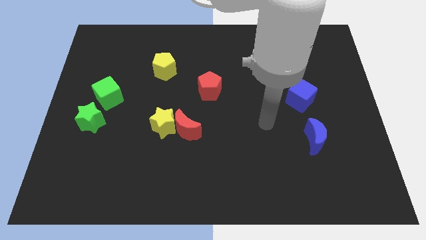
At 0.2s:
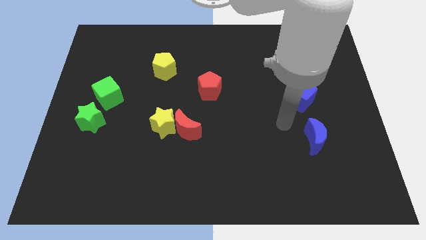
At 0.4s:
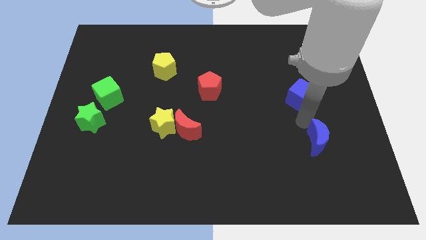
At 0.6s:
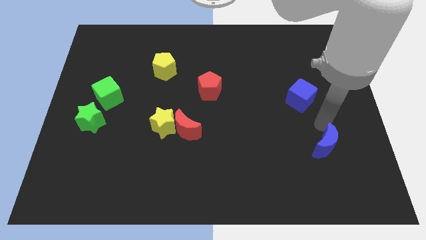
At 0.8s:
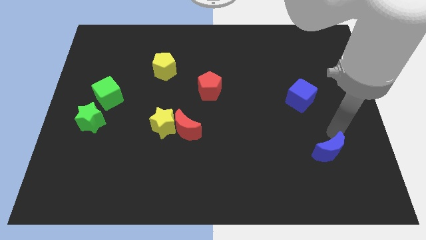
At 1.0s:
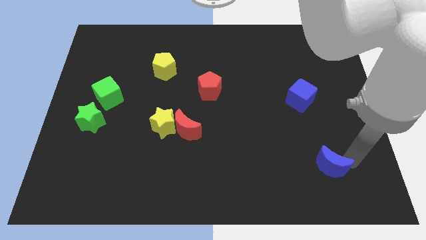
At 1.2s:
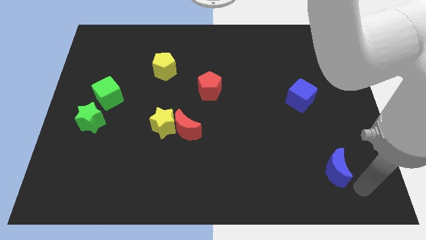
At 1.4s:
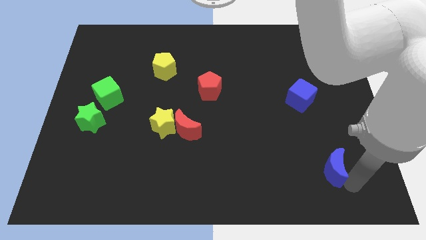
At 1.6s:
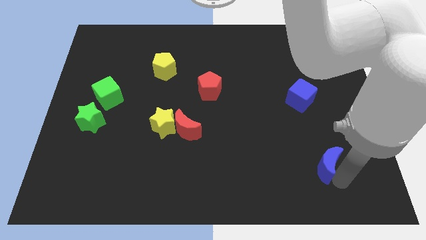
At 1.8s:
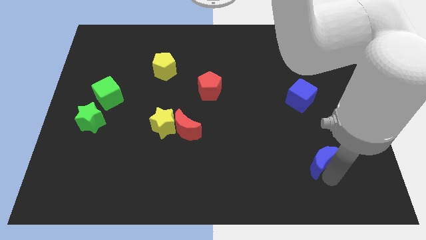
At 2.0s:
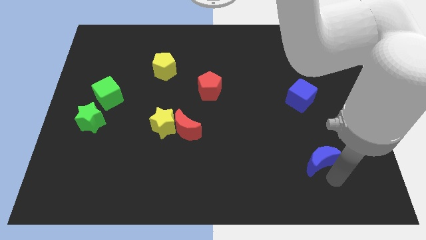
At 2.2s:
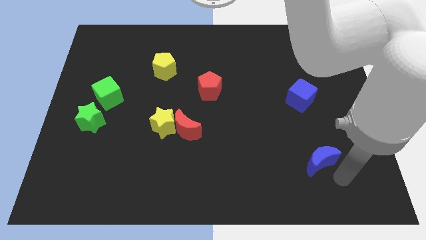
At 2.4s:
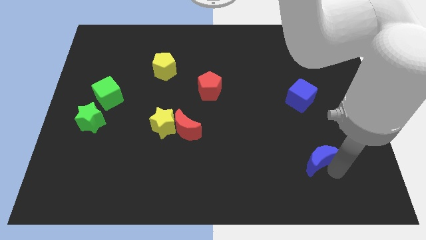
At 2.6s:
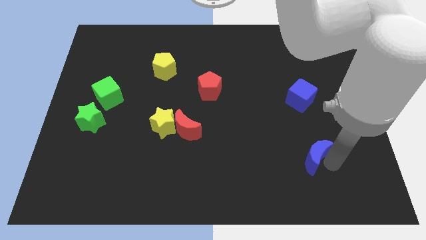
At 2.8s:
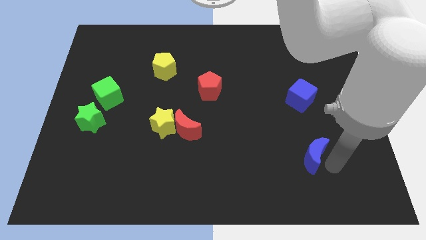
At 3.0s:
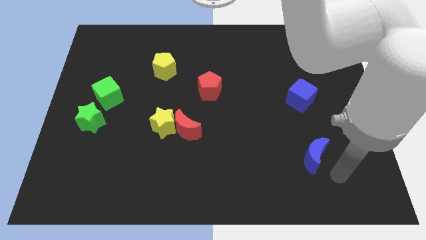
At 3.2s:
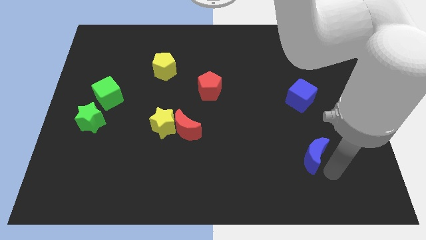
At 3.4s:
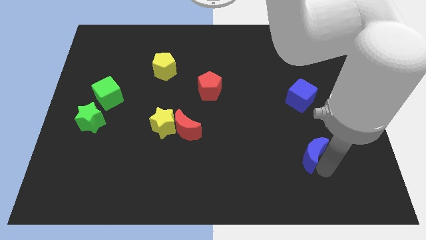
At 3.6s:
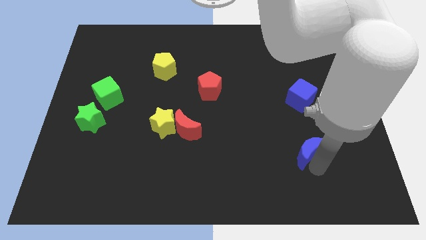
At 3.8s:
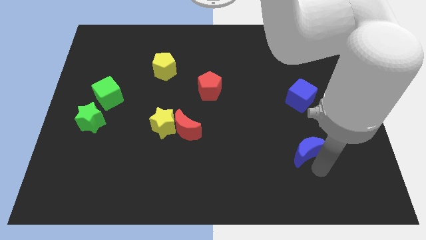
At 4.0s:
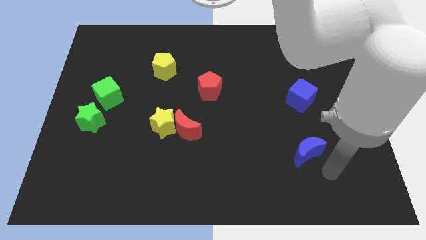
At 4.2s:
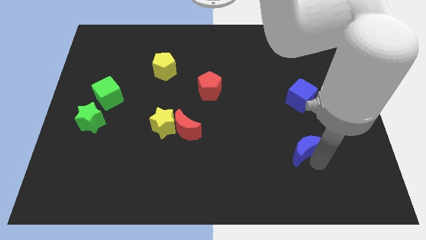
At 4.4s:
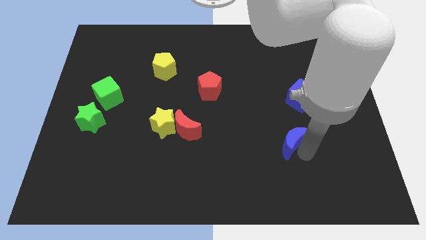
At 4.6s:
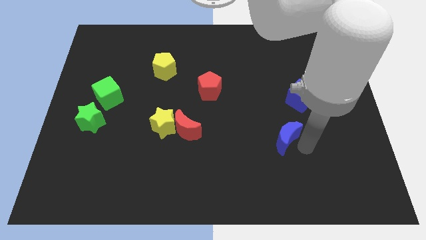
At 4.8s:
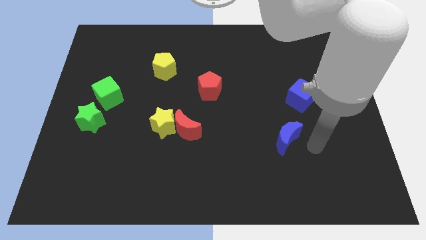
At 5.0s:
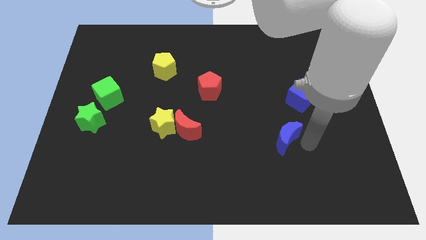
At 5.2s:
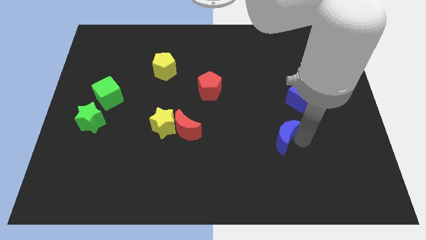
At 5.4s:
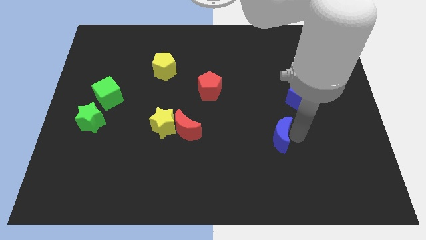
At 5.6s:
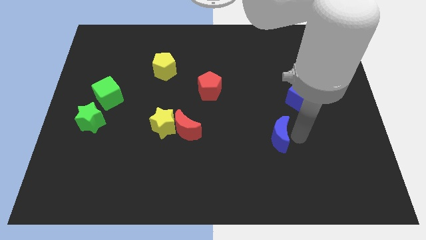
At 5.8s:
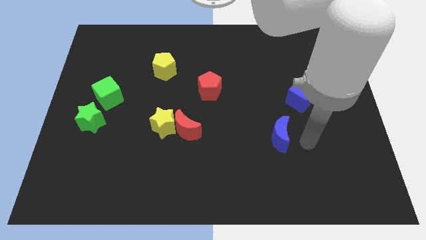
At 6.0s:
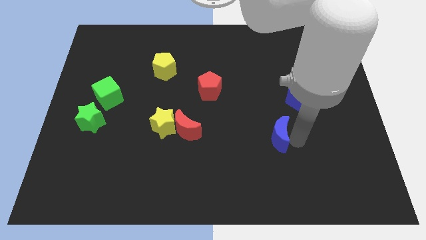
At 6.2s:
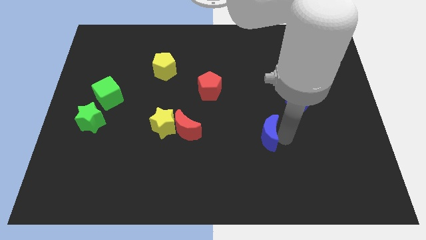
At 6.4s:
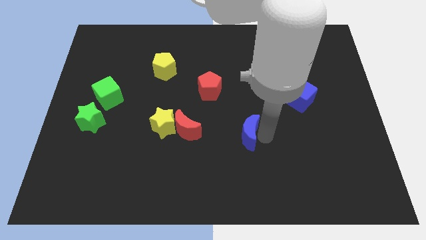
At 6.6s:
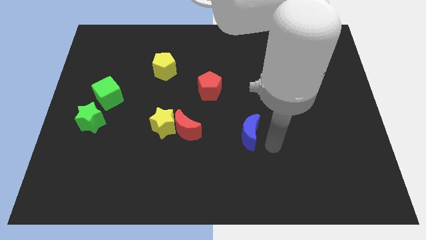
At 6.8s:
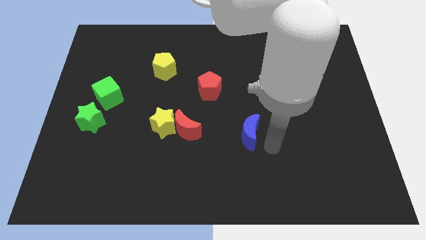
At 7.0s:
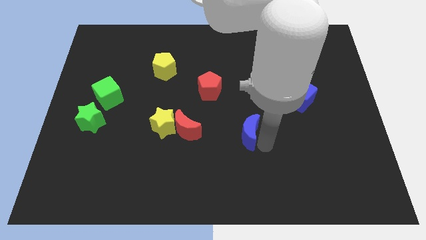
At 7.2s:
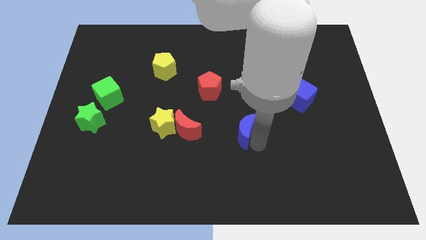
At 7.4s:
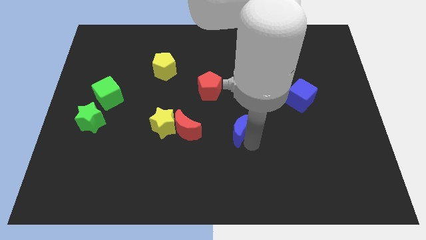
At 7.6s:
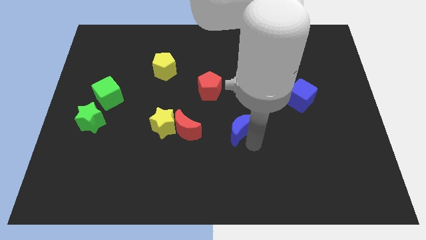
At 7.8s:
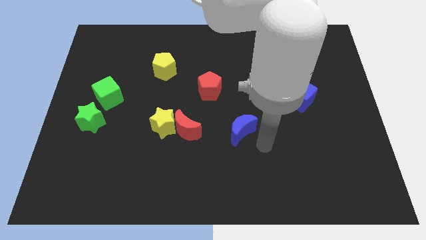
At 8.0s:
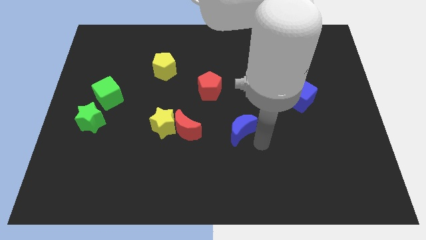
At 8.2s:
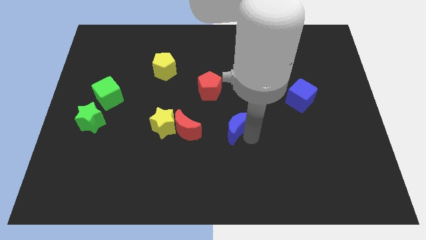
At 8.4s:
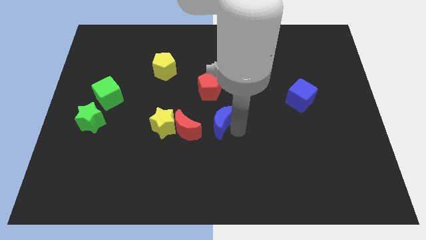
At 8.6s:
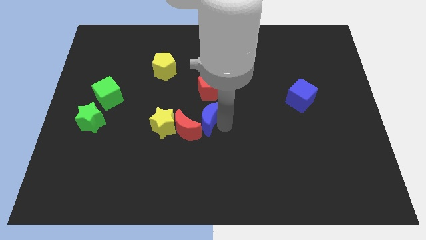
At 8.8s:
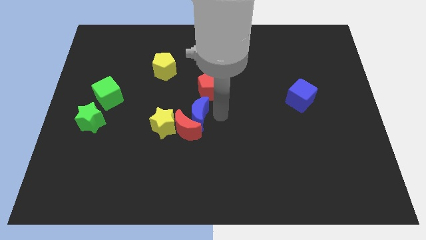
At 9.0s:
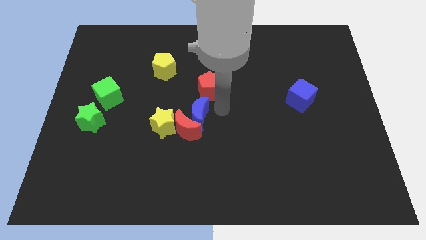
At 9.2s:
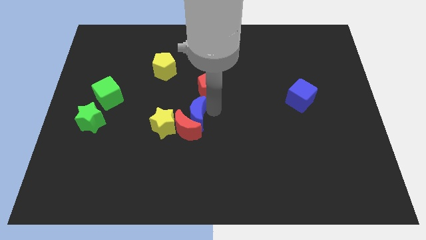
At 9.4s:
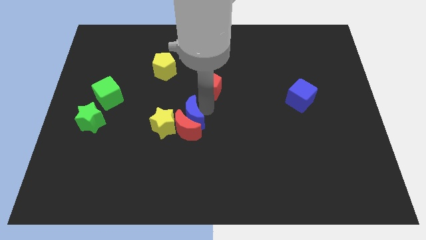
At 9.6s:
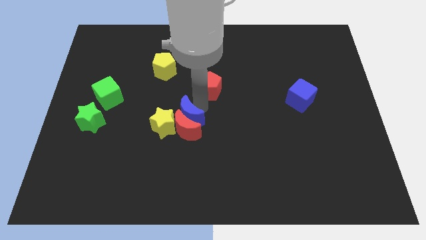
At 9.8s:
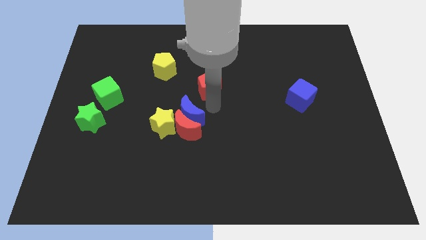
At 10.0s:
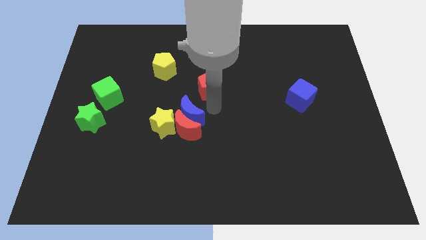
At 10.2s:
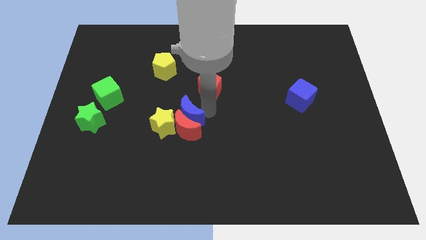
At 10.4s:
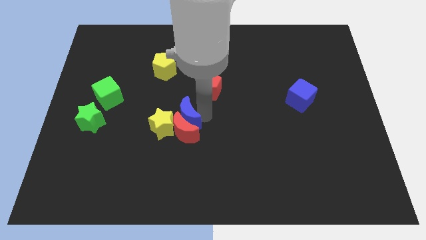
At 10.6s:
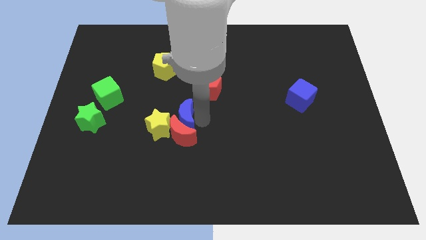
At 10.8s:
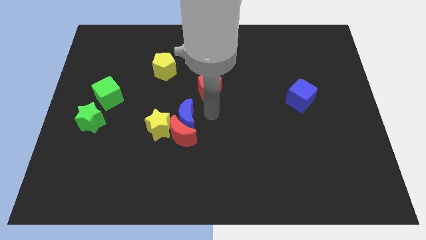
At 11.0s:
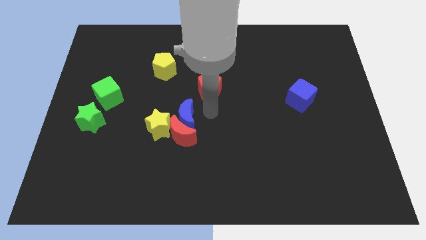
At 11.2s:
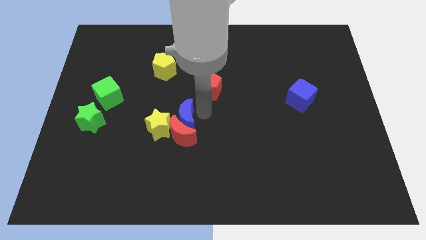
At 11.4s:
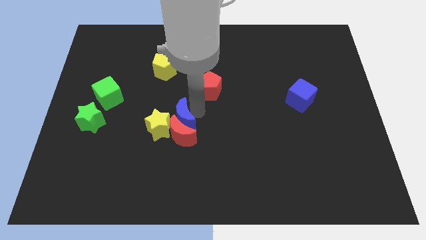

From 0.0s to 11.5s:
put the blue moon close to the yellow star

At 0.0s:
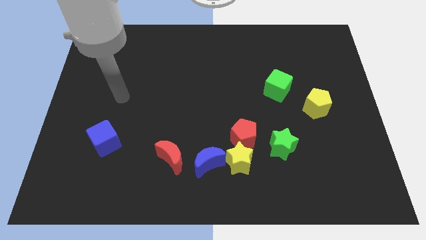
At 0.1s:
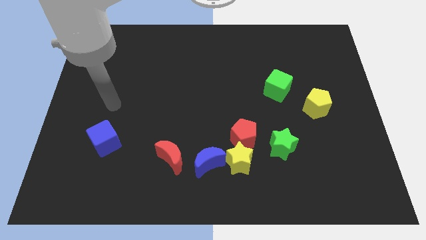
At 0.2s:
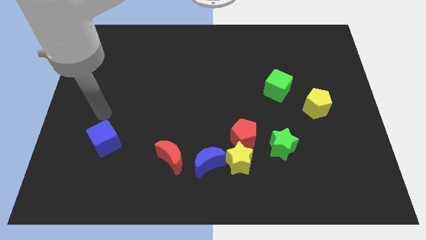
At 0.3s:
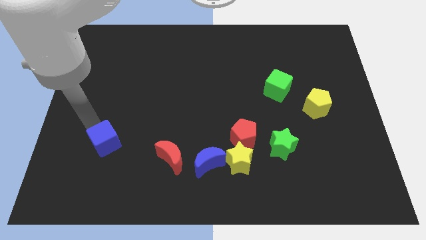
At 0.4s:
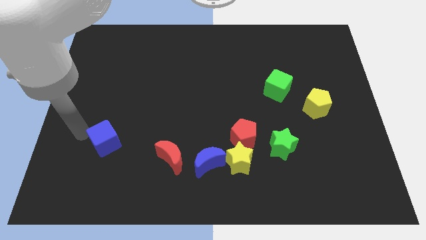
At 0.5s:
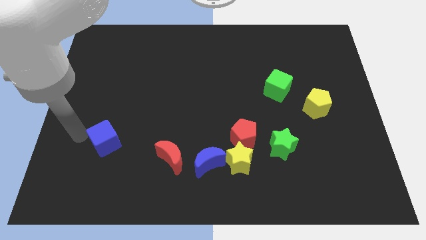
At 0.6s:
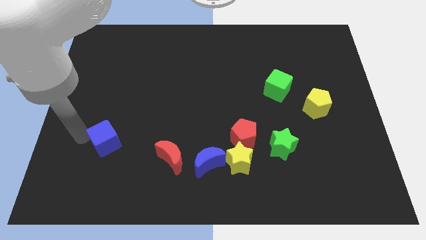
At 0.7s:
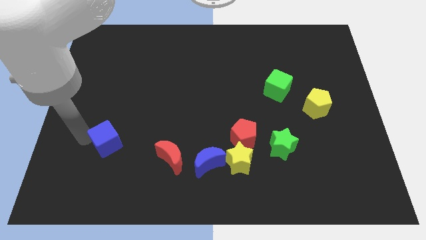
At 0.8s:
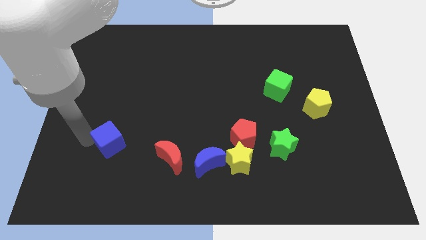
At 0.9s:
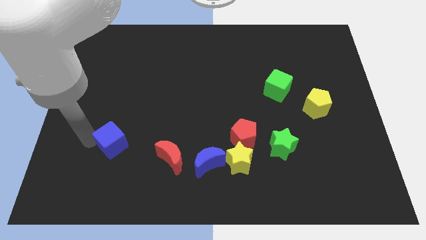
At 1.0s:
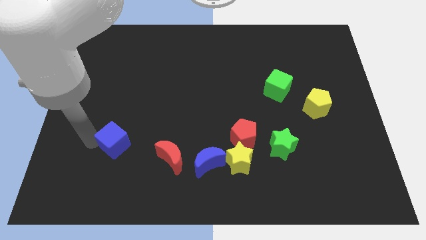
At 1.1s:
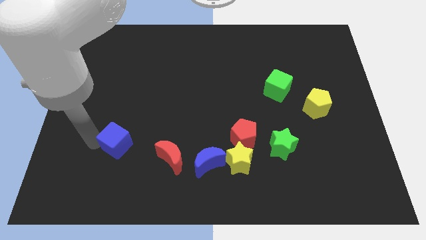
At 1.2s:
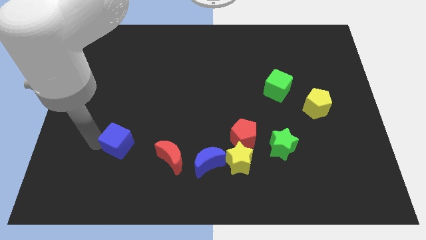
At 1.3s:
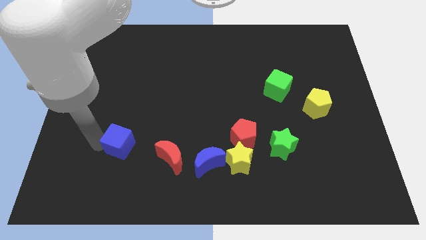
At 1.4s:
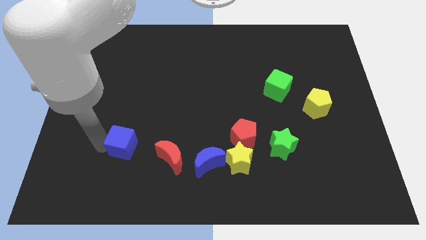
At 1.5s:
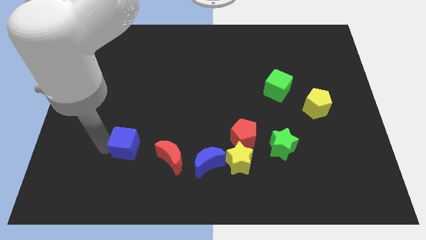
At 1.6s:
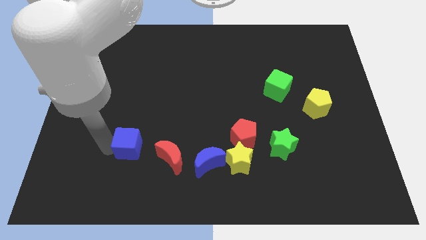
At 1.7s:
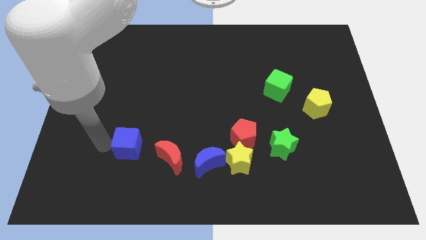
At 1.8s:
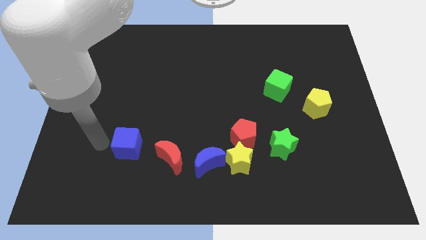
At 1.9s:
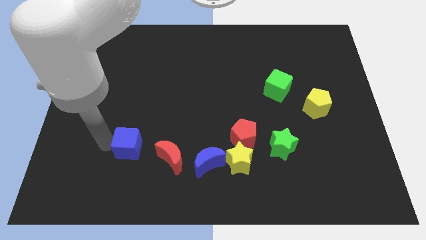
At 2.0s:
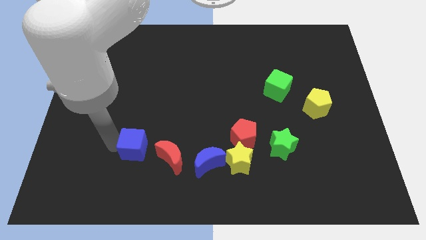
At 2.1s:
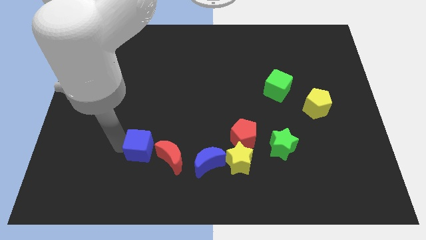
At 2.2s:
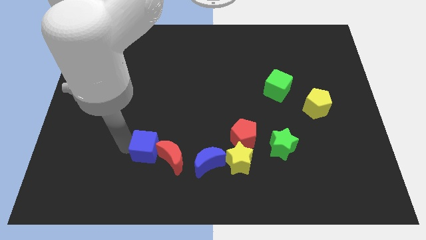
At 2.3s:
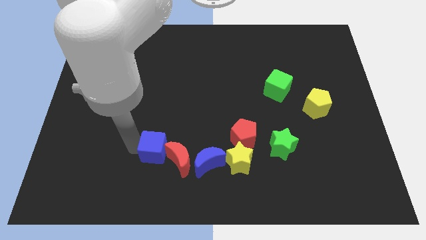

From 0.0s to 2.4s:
put the blue cube to the red moon
